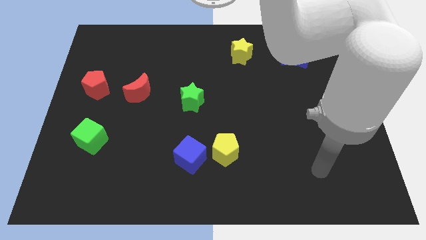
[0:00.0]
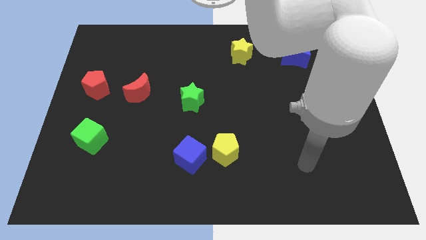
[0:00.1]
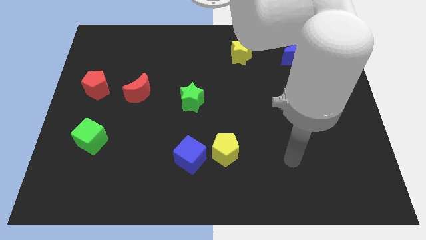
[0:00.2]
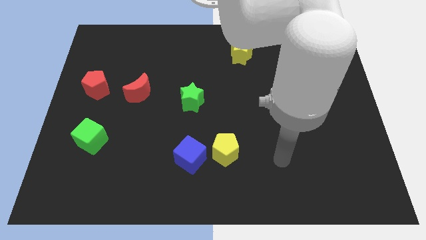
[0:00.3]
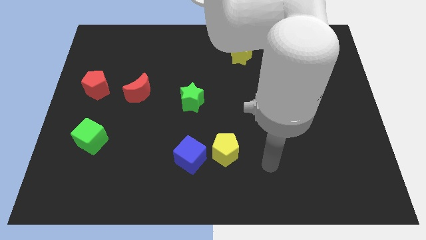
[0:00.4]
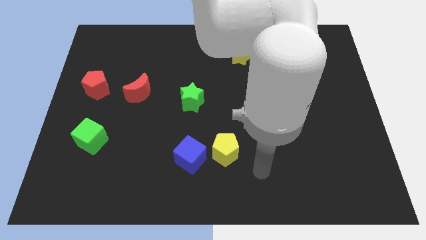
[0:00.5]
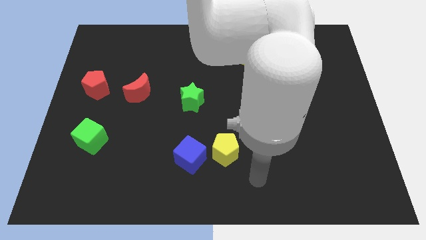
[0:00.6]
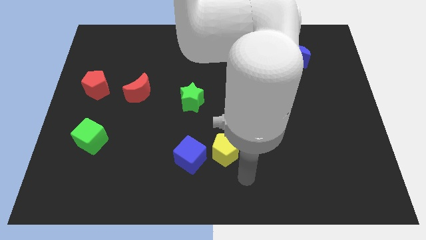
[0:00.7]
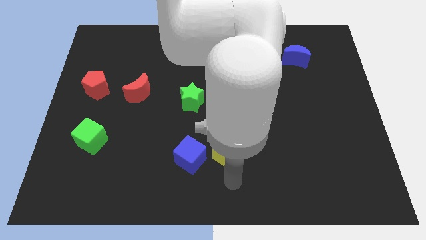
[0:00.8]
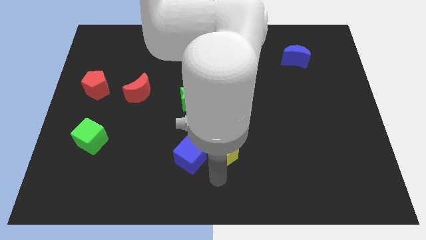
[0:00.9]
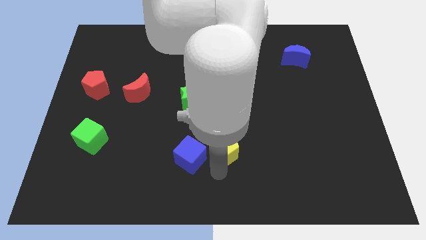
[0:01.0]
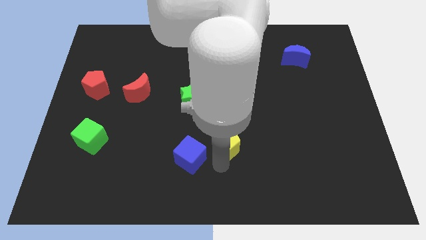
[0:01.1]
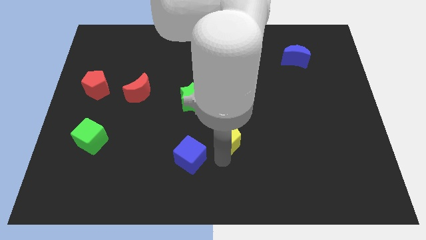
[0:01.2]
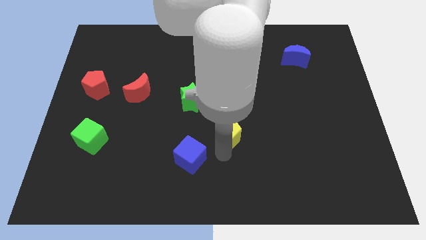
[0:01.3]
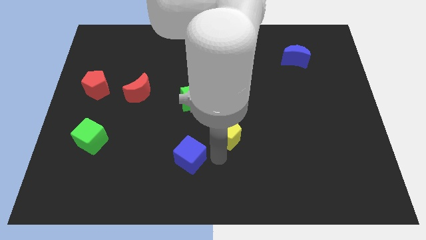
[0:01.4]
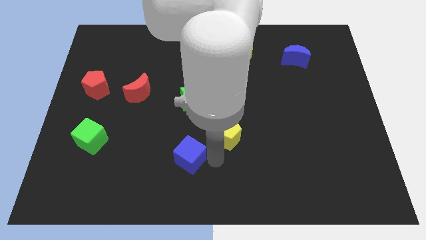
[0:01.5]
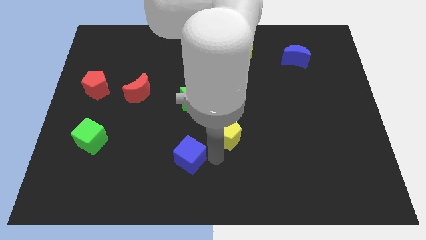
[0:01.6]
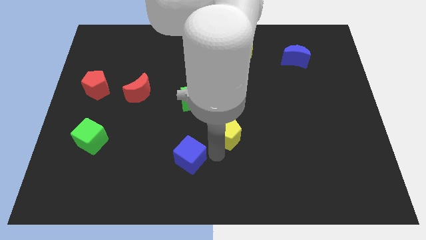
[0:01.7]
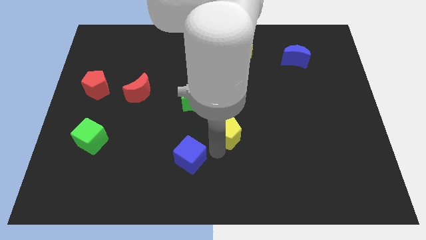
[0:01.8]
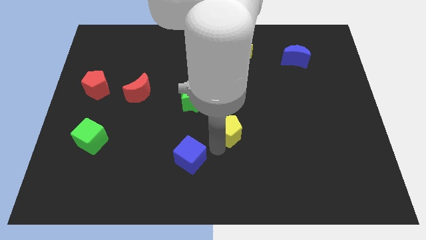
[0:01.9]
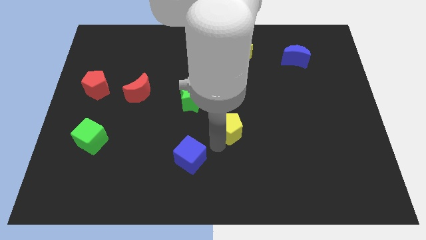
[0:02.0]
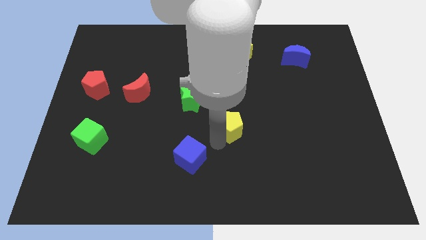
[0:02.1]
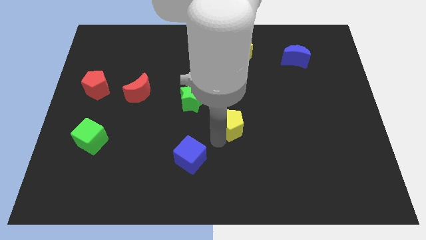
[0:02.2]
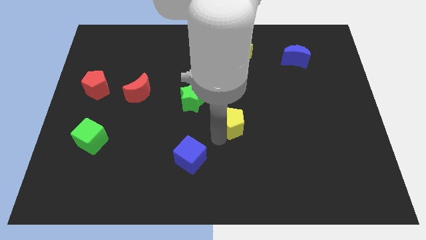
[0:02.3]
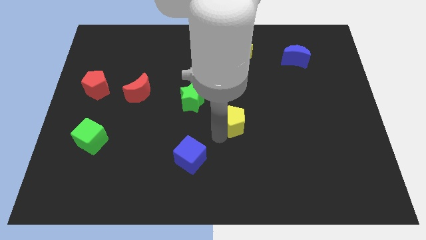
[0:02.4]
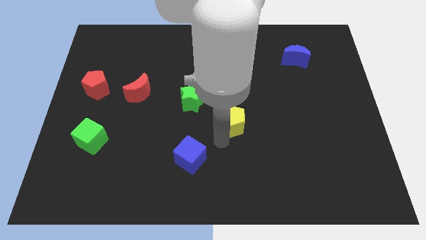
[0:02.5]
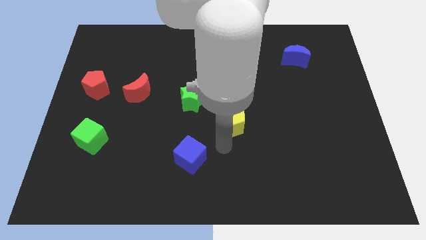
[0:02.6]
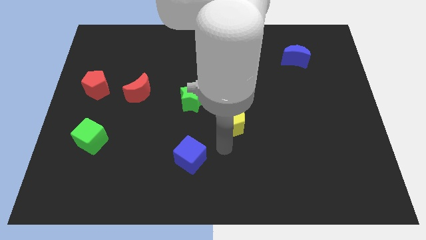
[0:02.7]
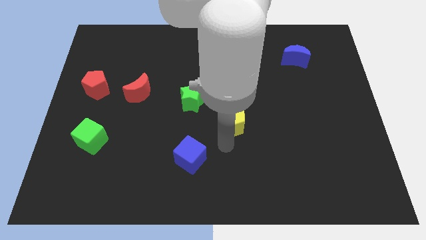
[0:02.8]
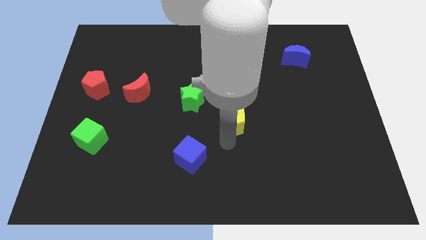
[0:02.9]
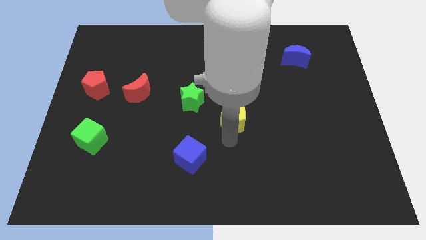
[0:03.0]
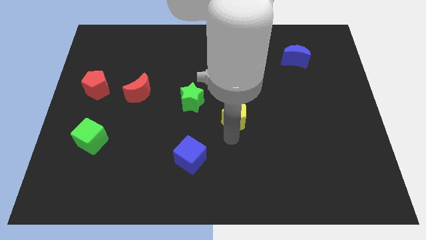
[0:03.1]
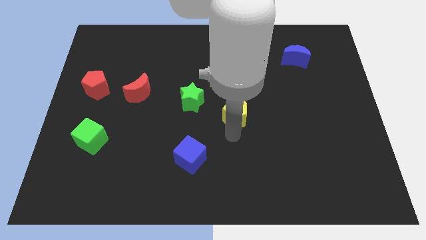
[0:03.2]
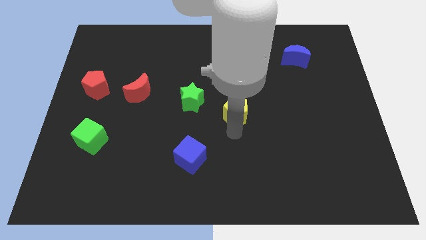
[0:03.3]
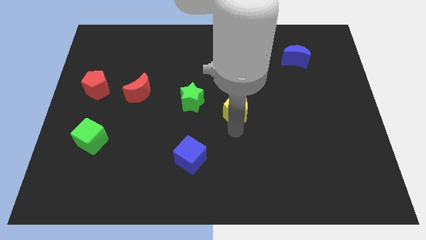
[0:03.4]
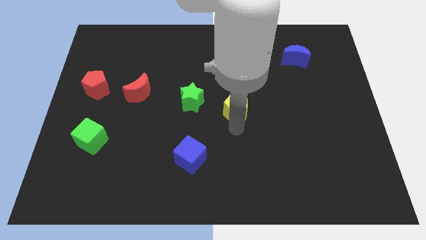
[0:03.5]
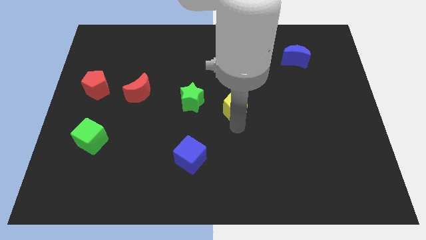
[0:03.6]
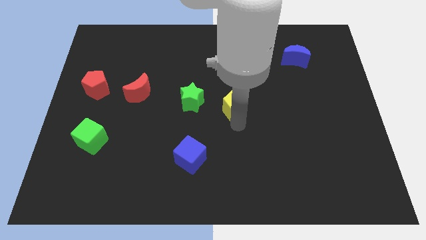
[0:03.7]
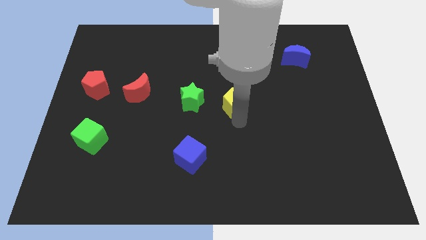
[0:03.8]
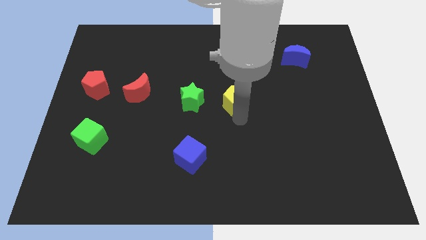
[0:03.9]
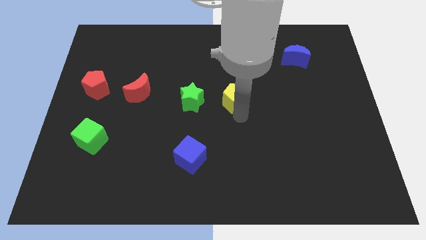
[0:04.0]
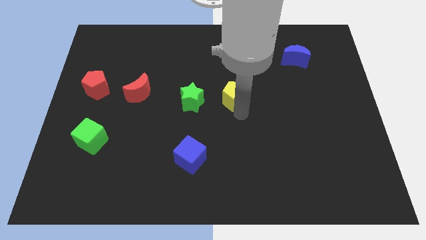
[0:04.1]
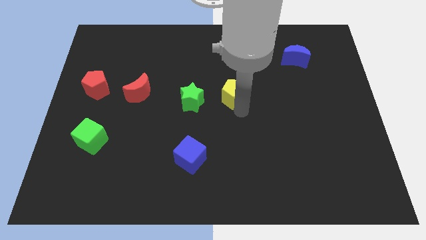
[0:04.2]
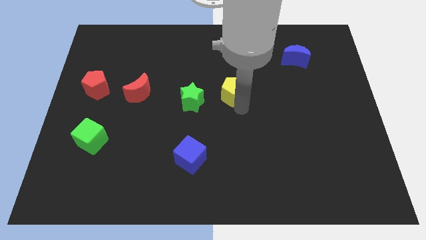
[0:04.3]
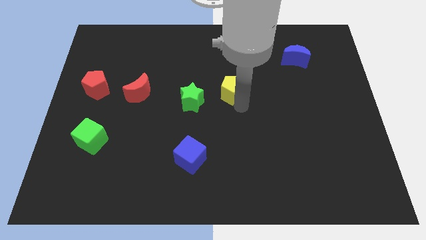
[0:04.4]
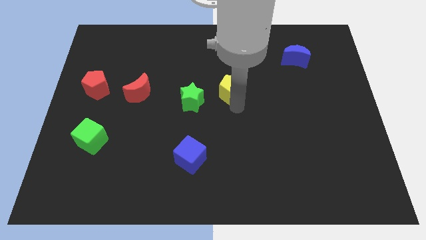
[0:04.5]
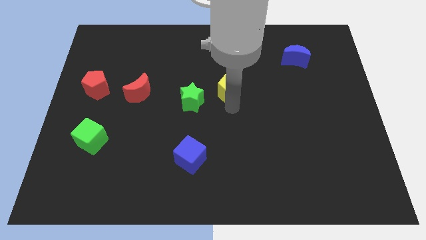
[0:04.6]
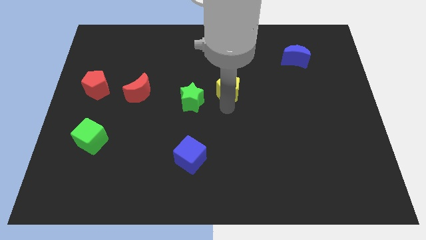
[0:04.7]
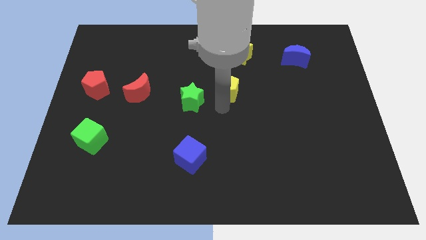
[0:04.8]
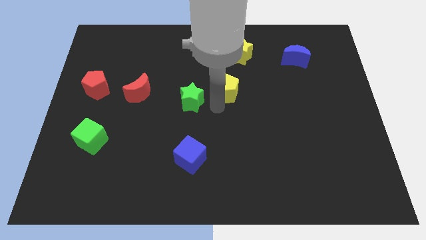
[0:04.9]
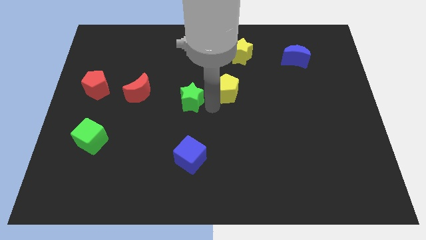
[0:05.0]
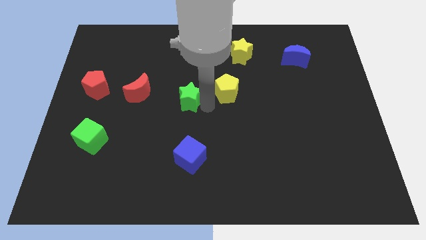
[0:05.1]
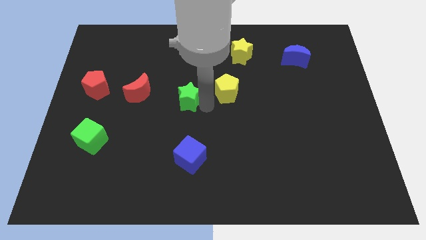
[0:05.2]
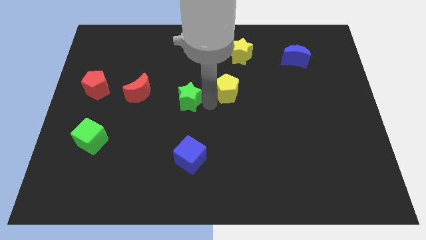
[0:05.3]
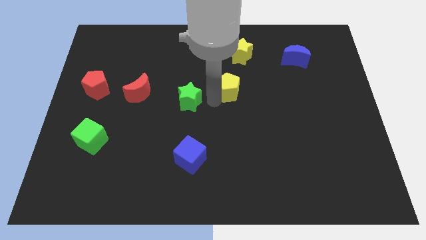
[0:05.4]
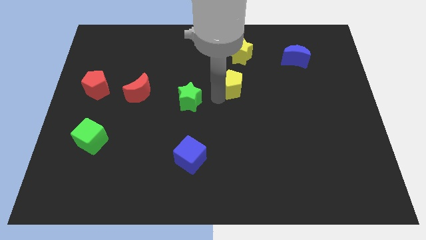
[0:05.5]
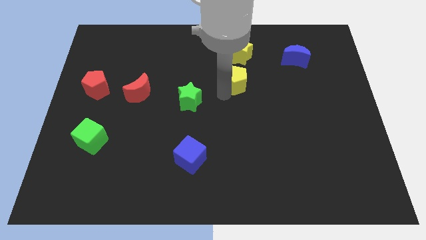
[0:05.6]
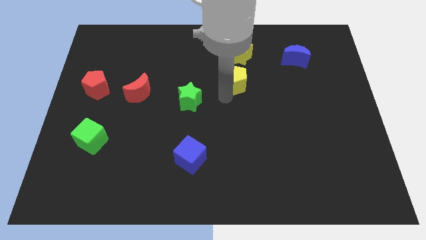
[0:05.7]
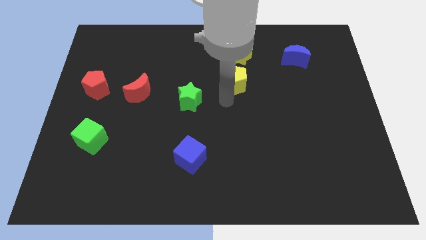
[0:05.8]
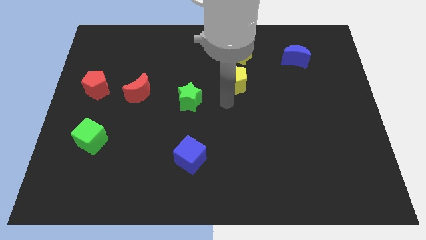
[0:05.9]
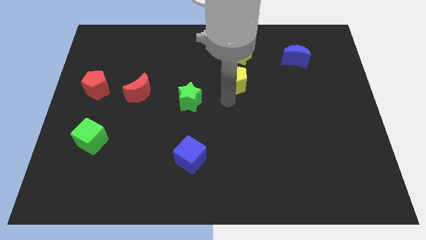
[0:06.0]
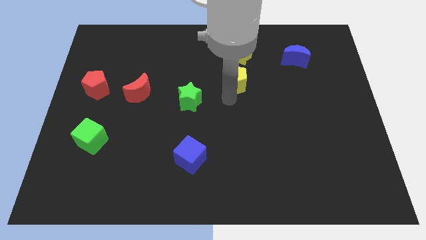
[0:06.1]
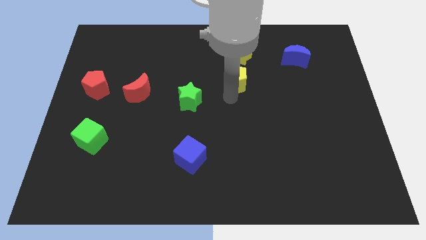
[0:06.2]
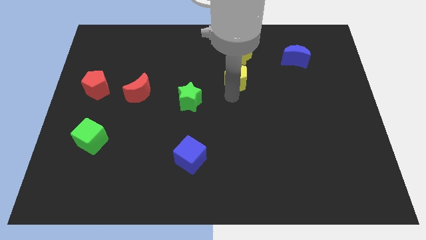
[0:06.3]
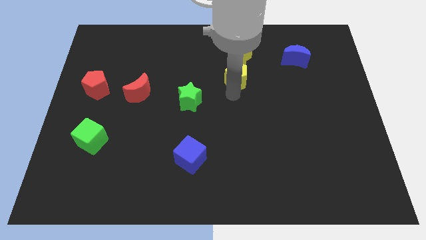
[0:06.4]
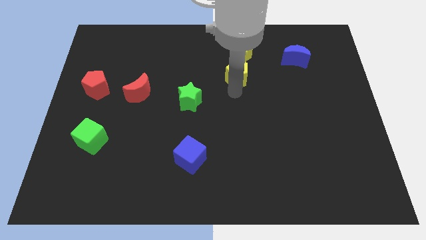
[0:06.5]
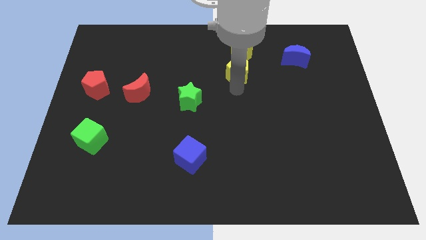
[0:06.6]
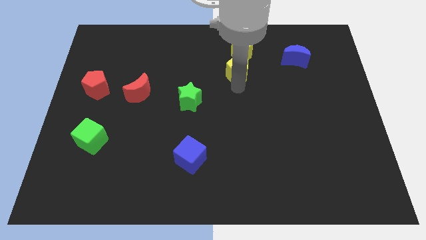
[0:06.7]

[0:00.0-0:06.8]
slide the yellow pentagon next to the yellow star

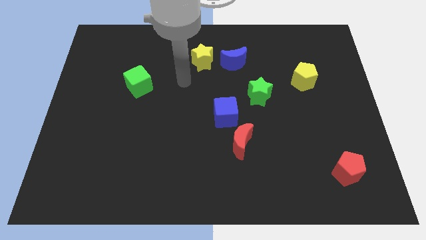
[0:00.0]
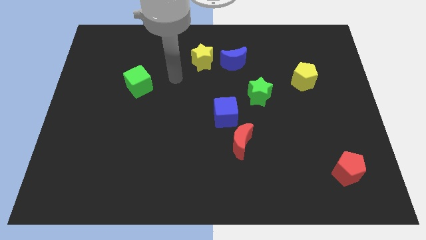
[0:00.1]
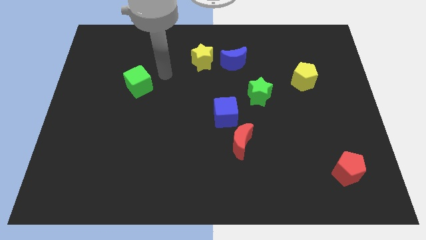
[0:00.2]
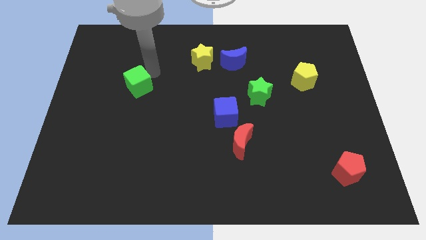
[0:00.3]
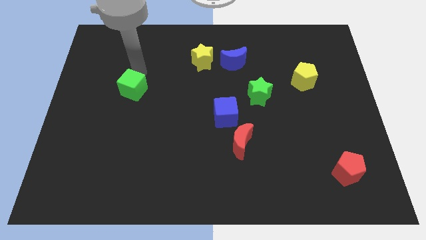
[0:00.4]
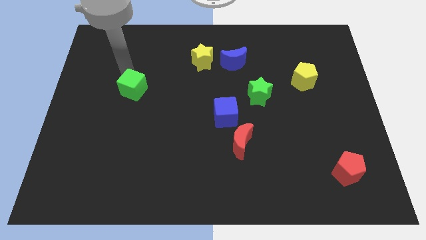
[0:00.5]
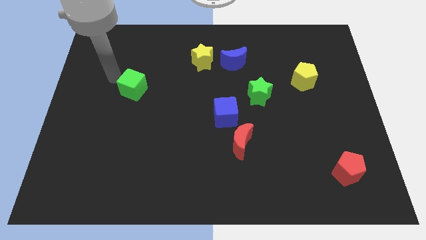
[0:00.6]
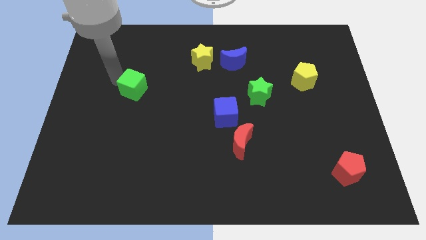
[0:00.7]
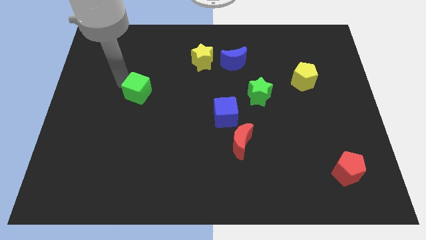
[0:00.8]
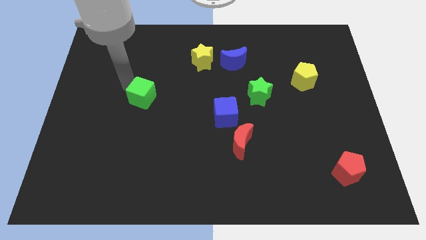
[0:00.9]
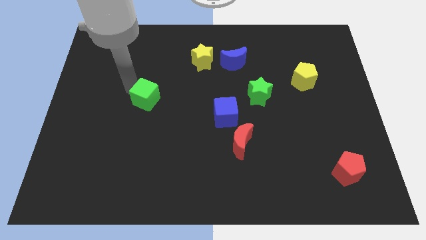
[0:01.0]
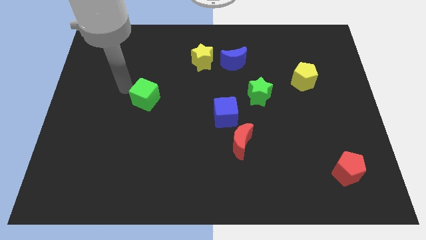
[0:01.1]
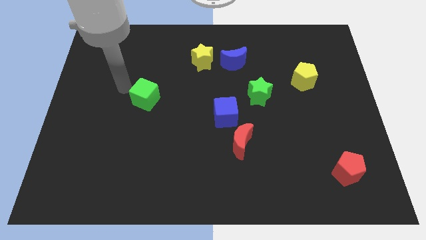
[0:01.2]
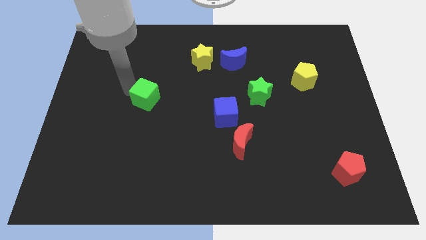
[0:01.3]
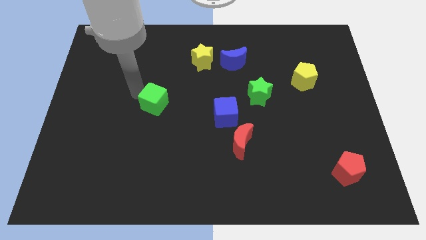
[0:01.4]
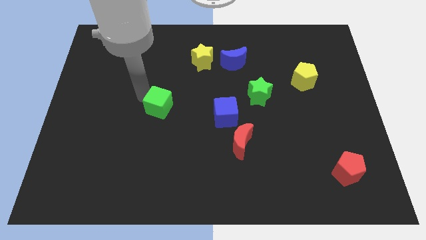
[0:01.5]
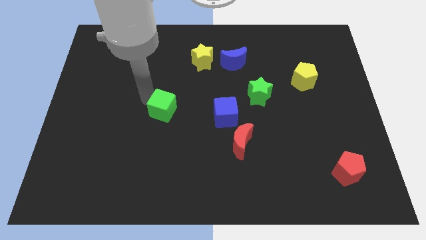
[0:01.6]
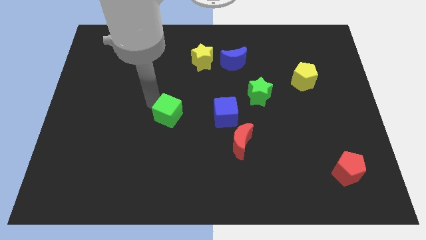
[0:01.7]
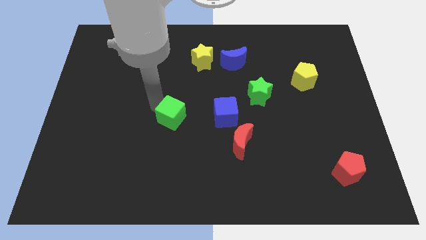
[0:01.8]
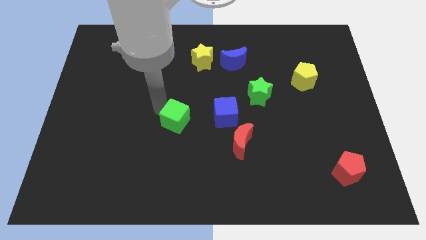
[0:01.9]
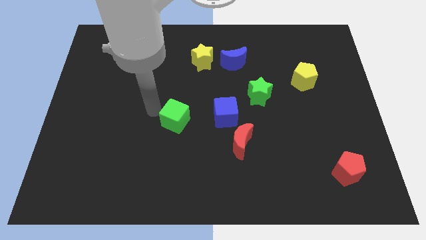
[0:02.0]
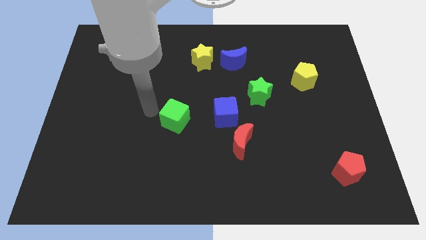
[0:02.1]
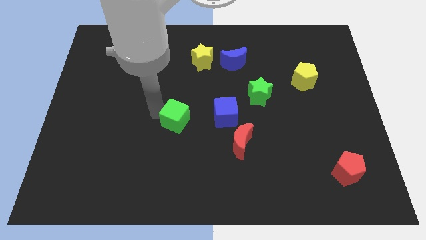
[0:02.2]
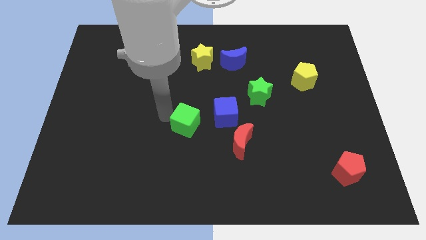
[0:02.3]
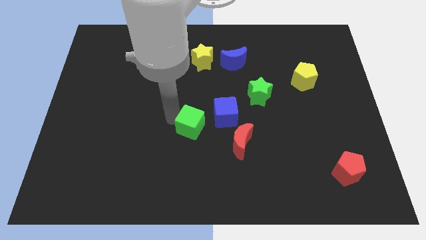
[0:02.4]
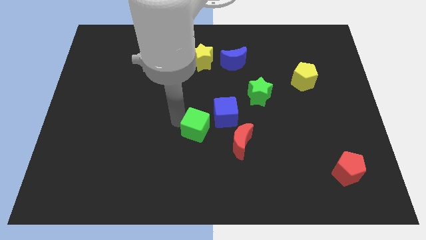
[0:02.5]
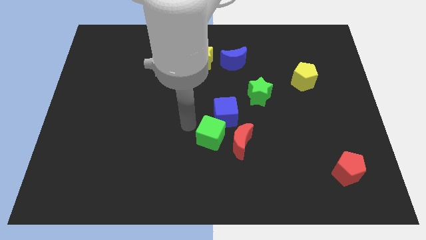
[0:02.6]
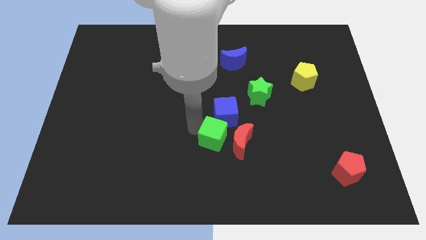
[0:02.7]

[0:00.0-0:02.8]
slide the green cube to the red moon
